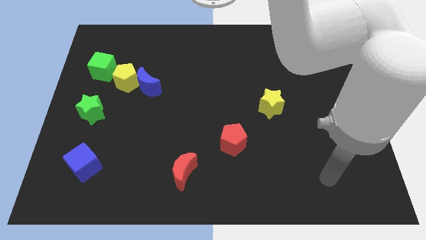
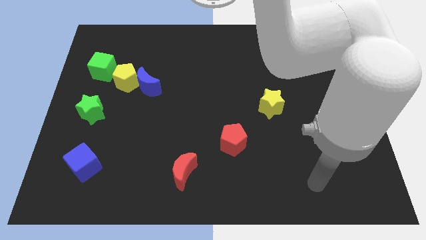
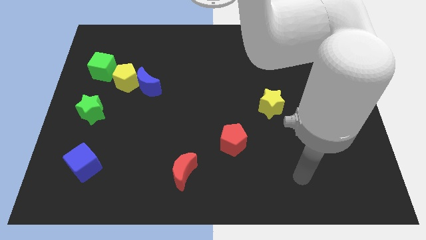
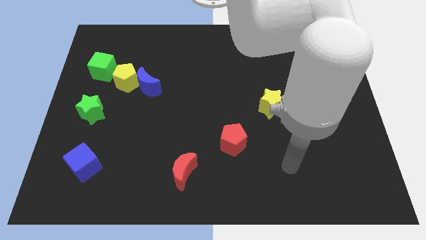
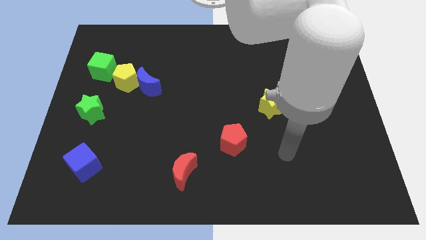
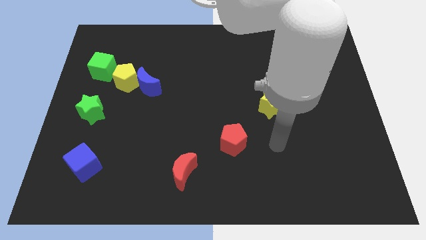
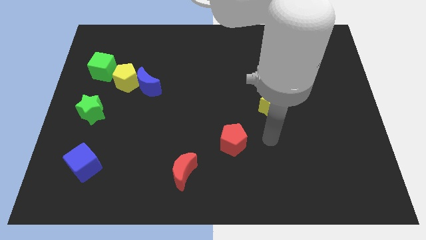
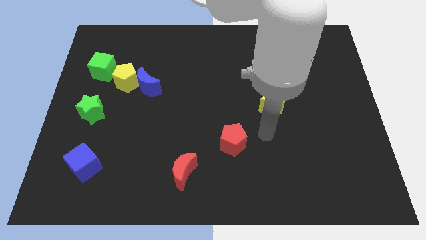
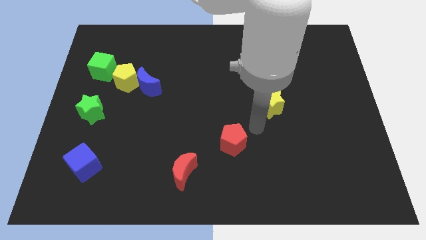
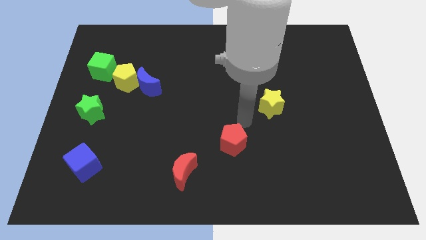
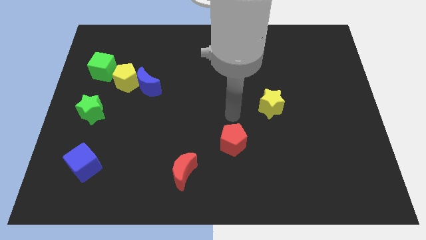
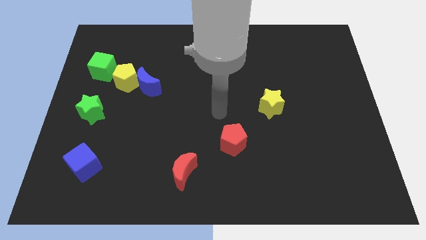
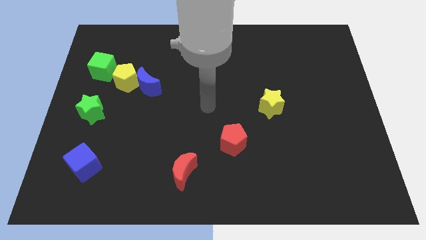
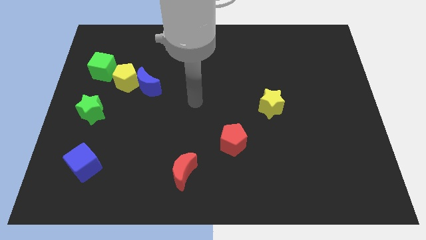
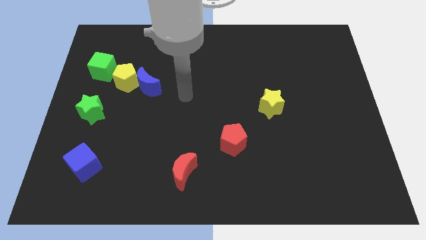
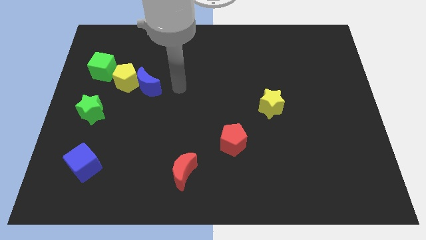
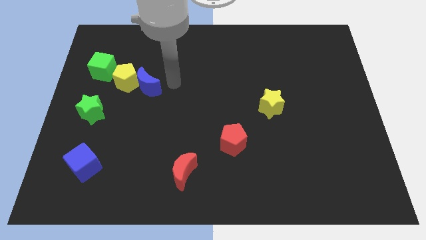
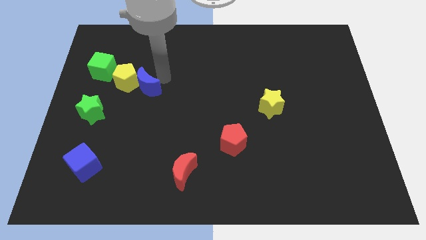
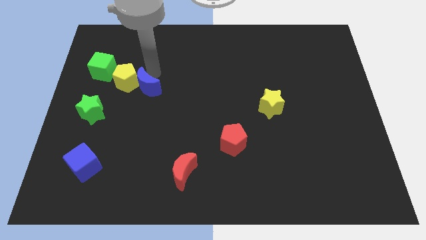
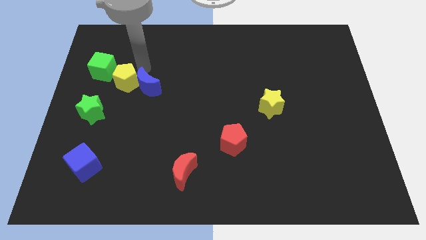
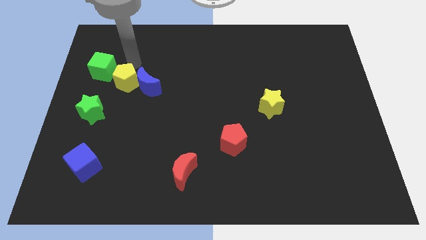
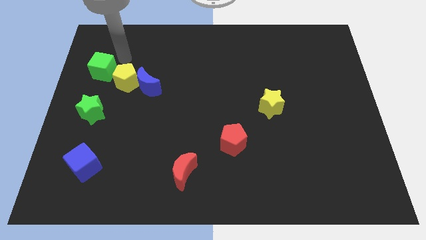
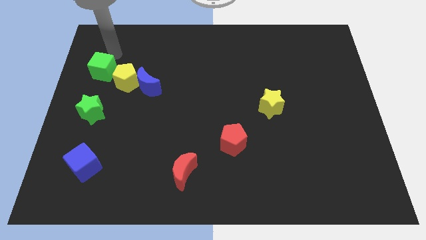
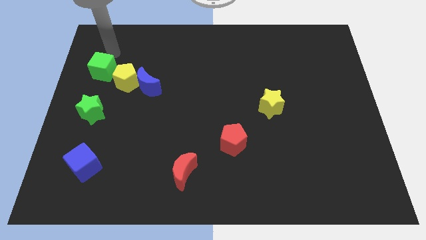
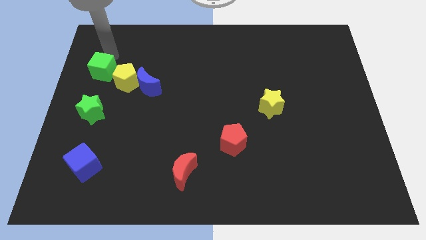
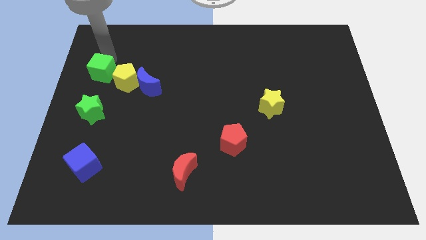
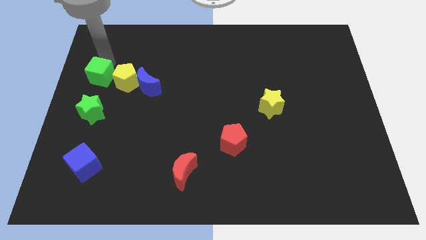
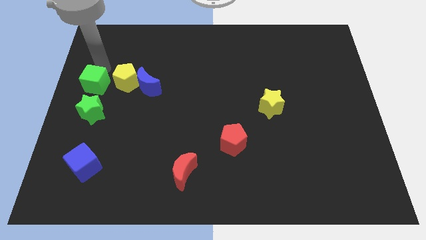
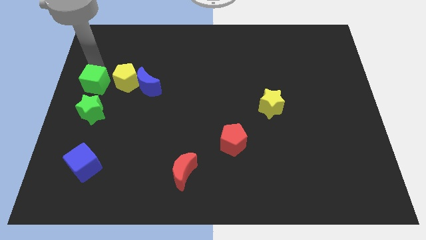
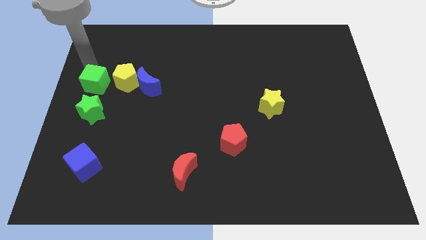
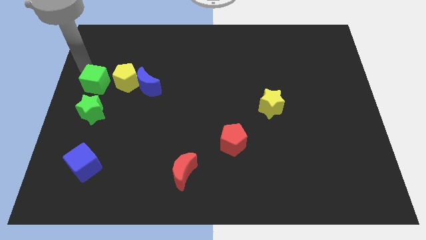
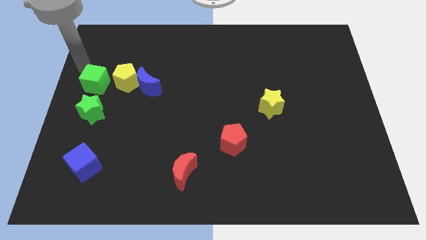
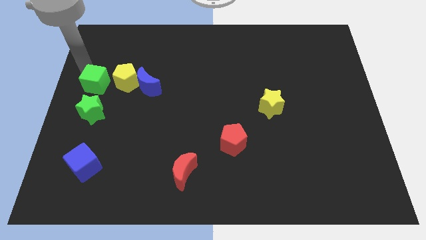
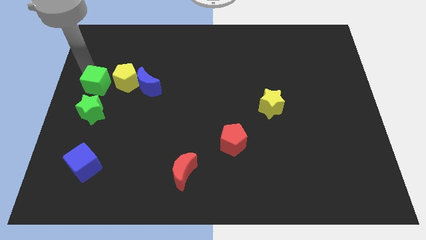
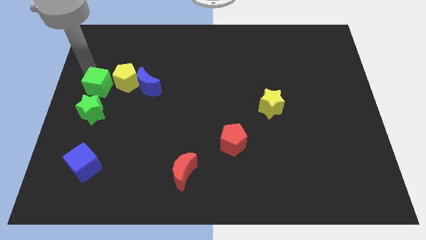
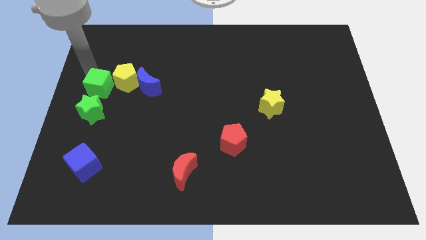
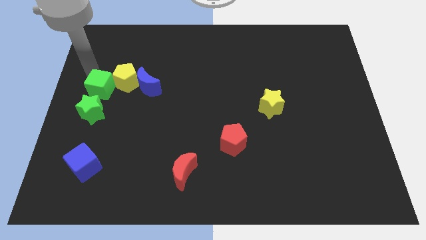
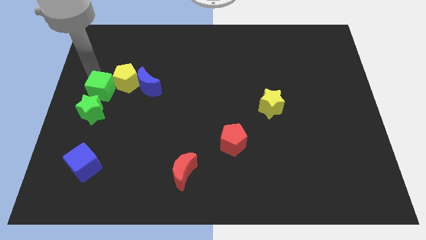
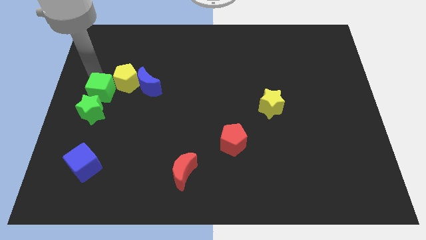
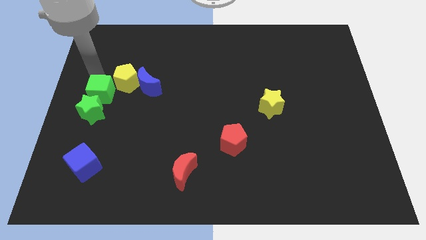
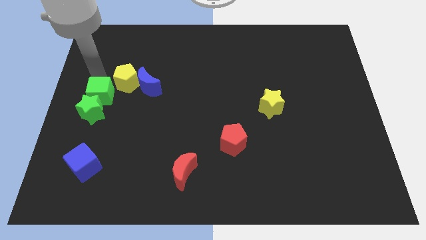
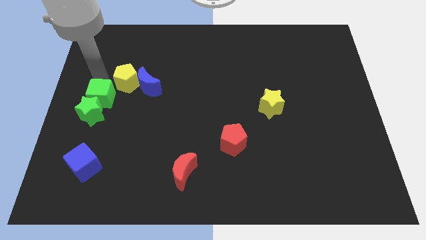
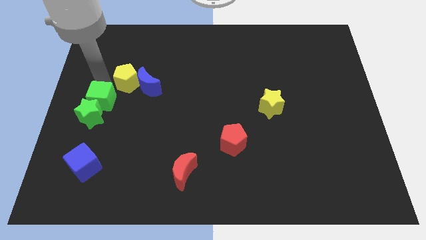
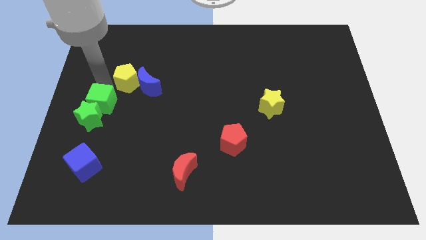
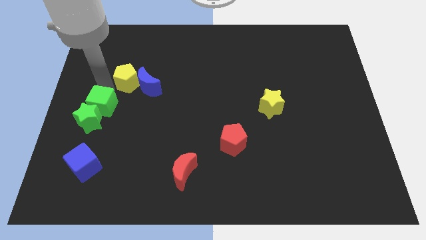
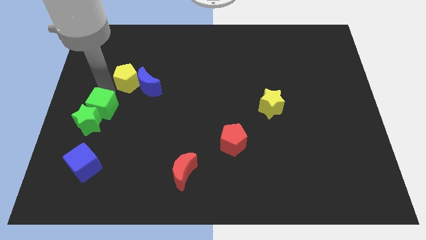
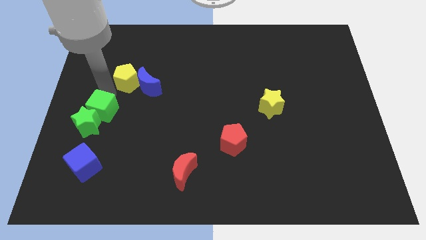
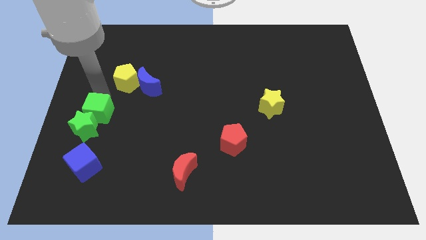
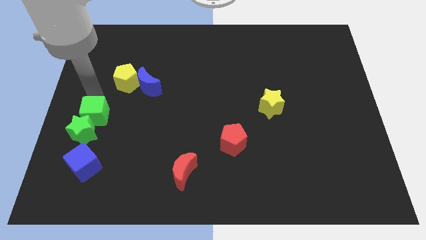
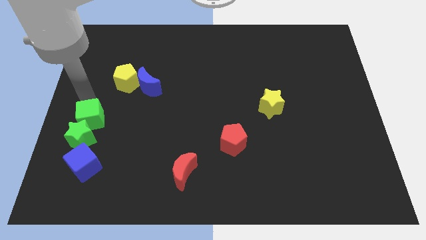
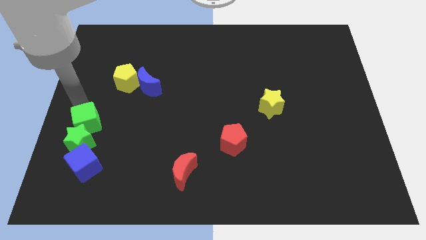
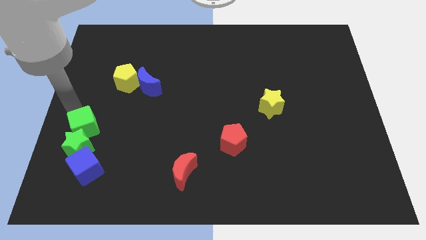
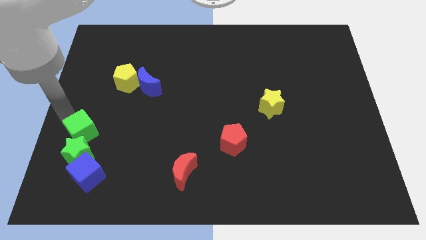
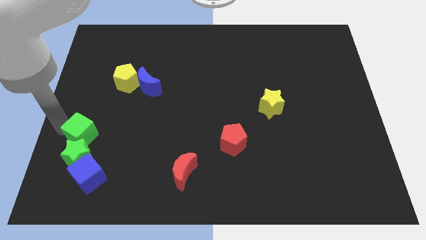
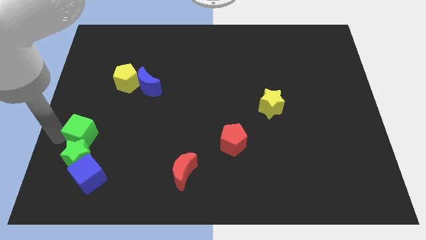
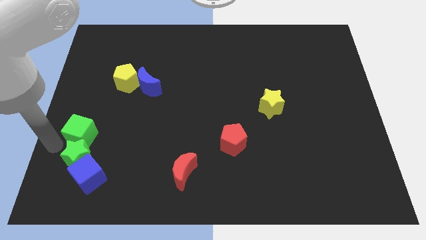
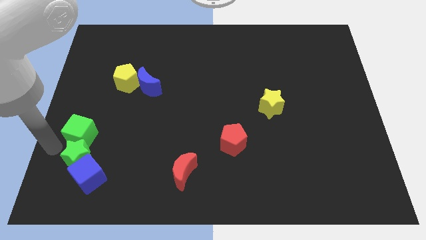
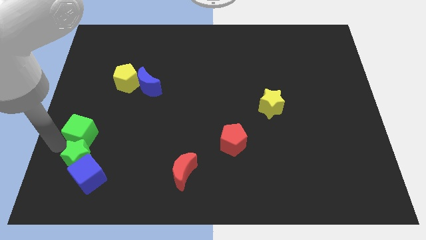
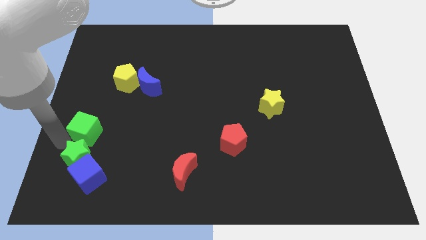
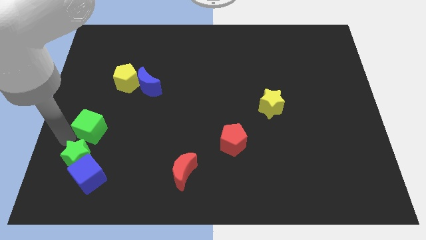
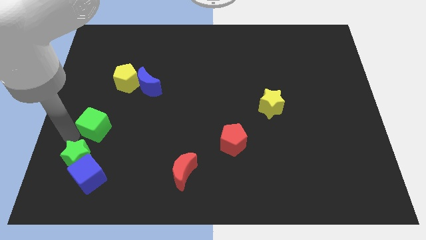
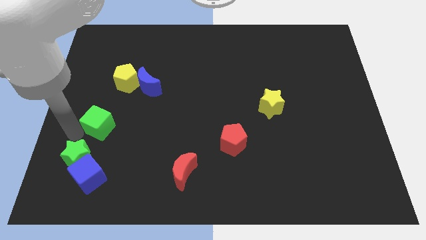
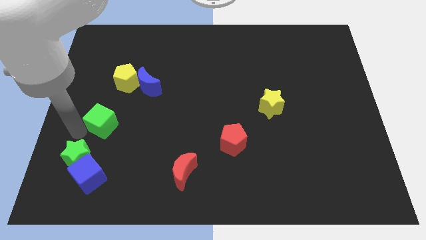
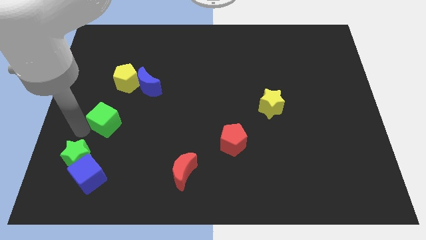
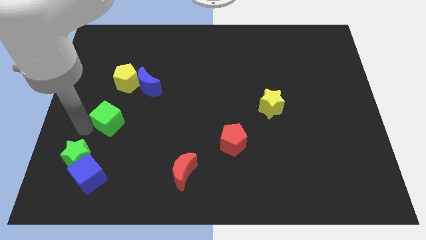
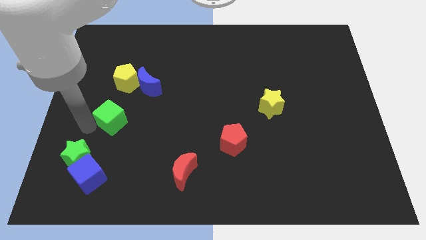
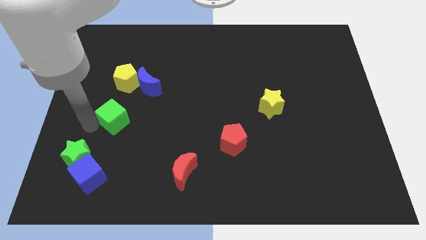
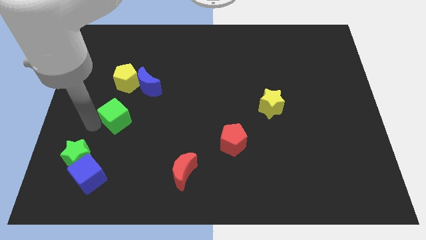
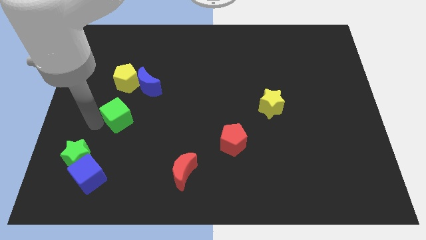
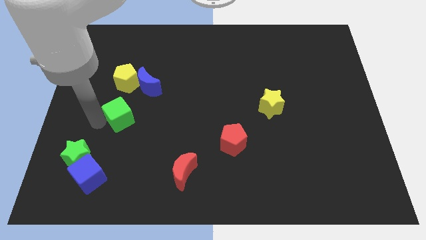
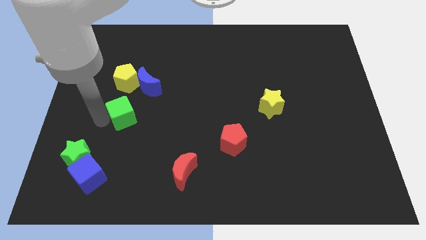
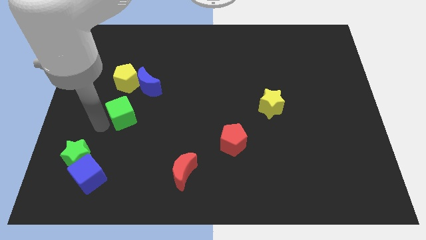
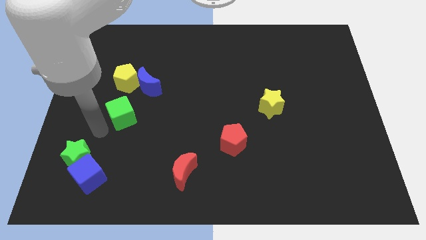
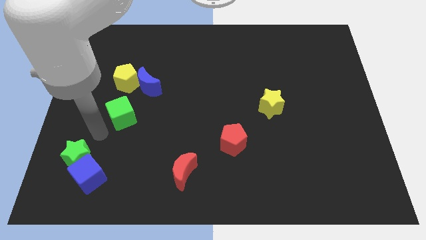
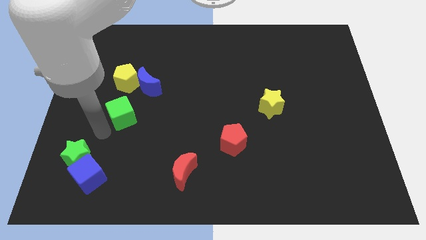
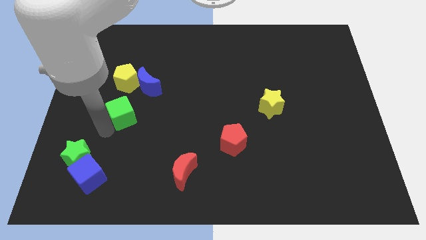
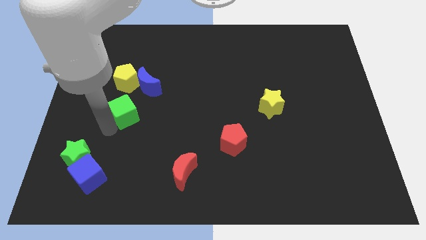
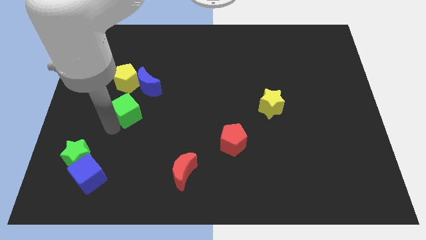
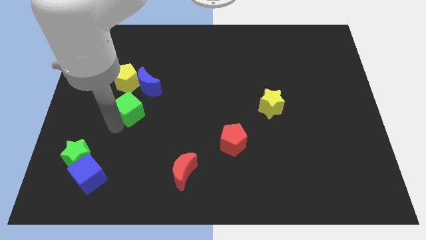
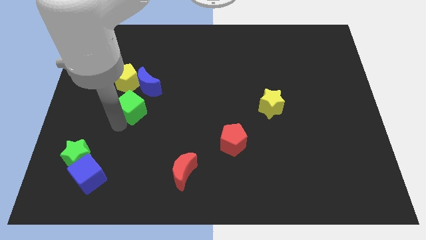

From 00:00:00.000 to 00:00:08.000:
put the green cube diagonally down and to the right of the yellow pentagon

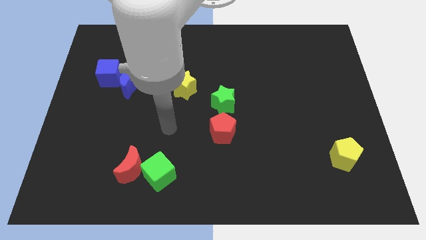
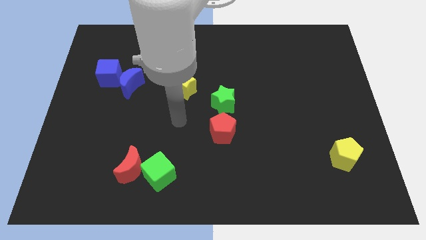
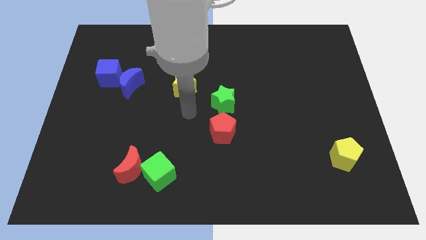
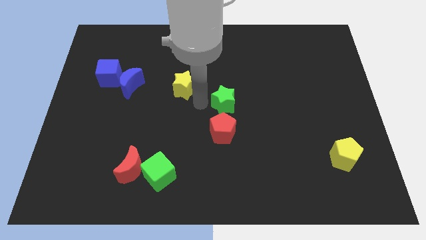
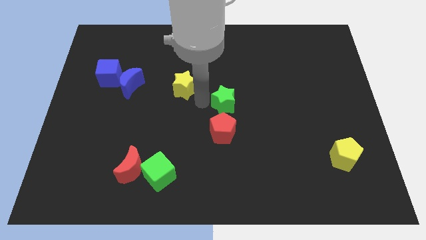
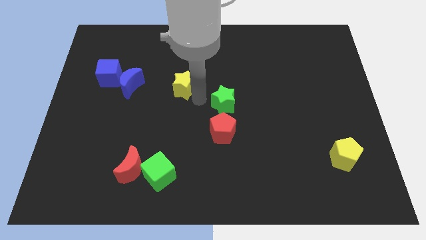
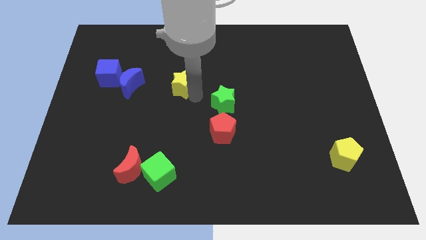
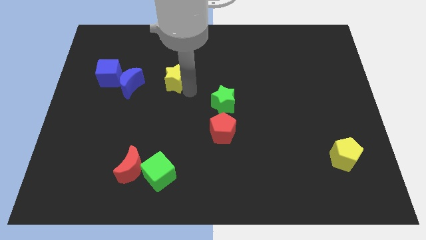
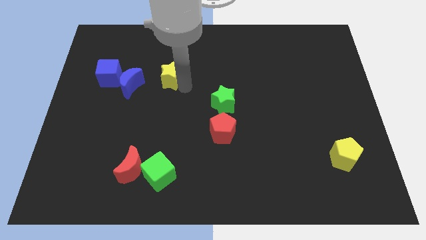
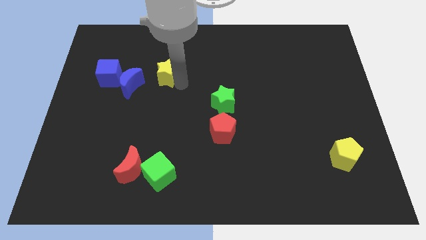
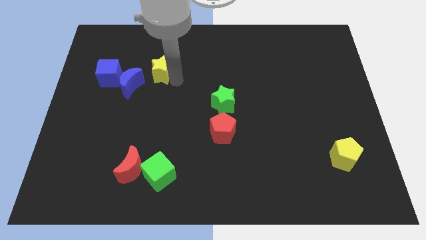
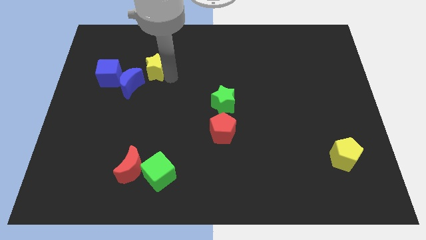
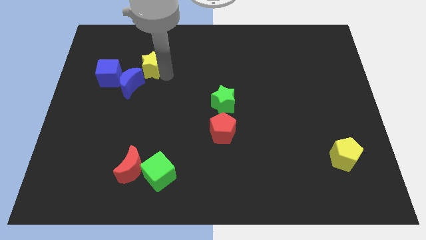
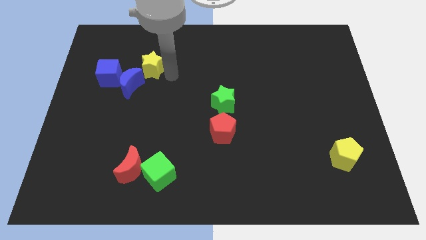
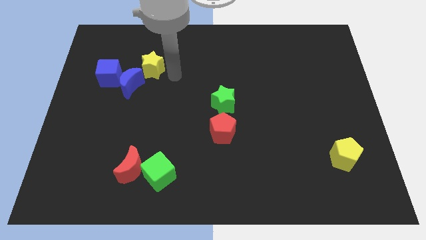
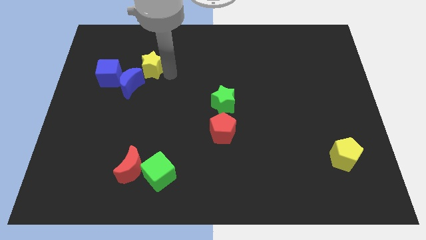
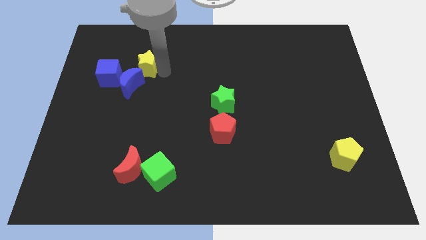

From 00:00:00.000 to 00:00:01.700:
slide the yellow star to the top right of the blue cube
